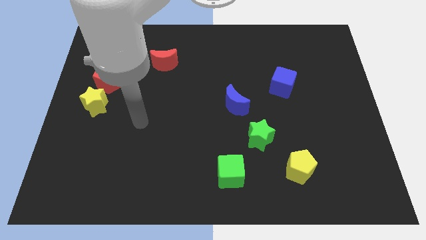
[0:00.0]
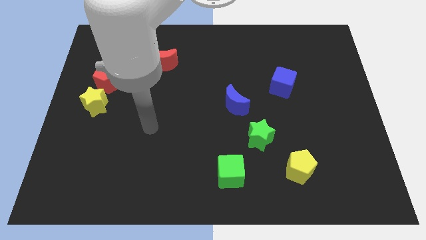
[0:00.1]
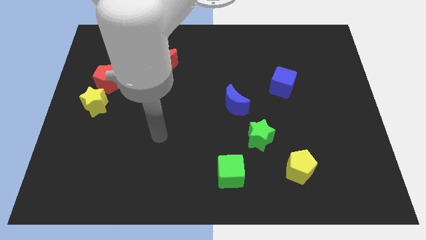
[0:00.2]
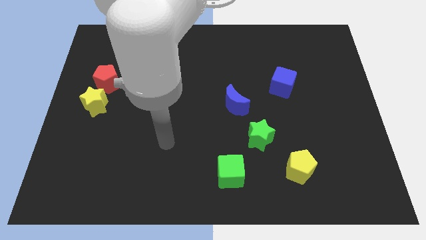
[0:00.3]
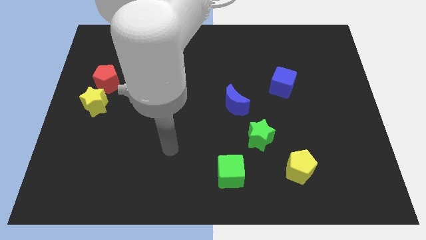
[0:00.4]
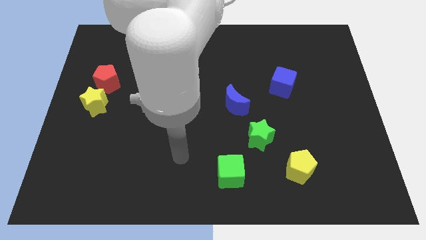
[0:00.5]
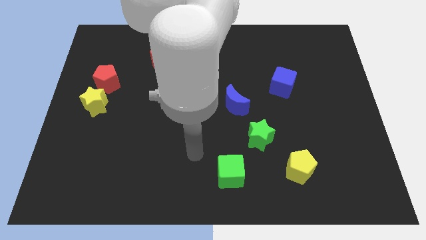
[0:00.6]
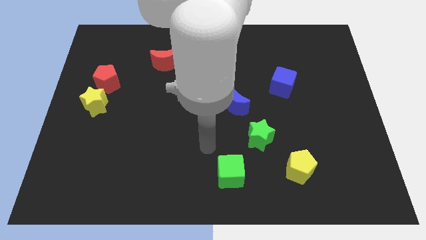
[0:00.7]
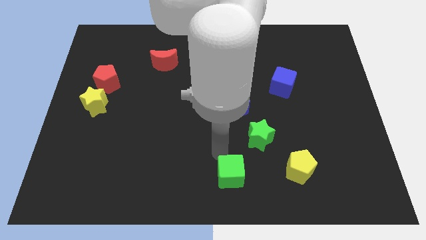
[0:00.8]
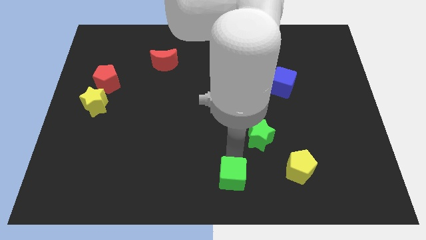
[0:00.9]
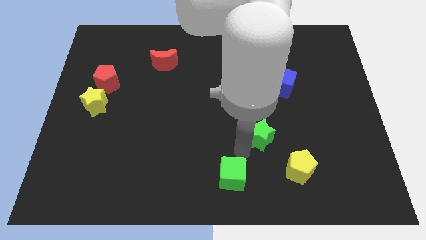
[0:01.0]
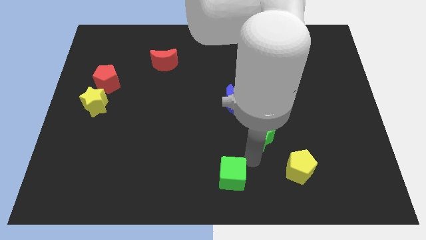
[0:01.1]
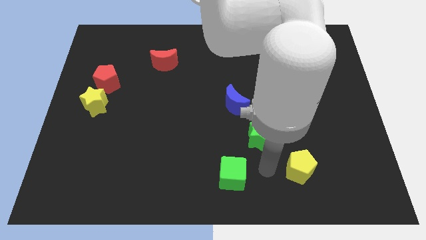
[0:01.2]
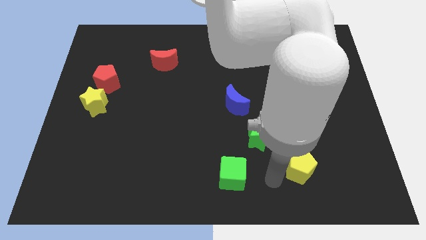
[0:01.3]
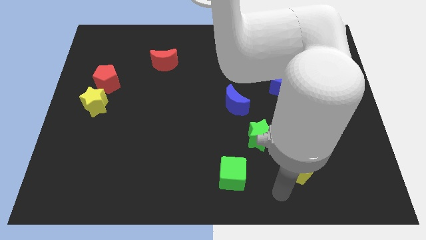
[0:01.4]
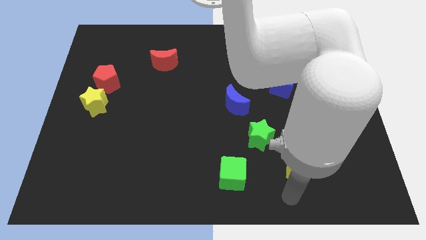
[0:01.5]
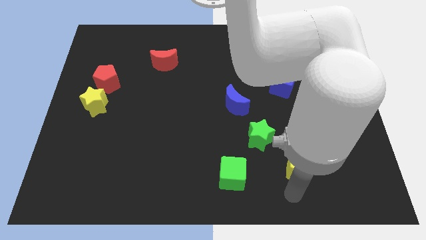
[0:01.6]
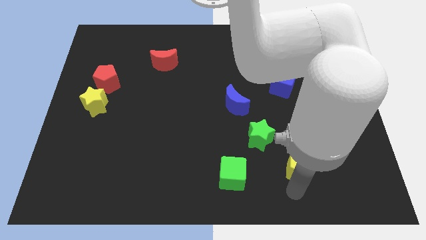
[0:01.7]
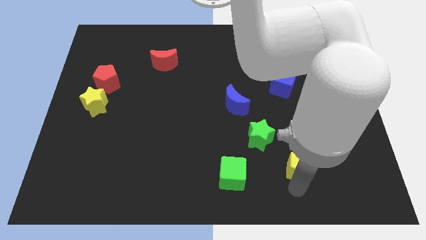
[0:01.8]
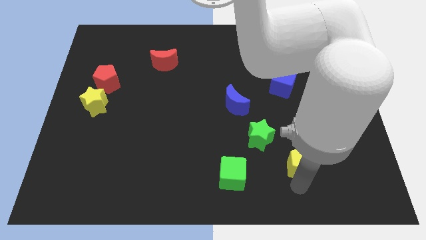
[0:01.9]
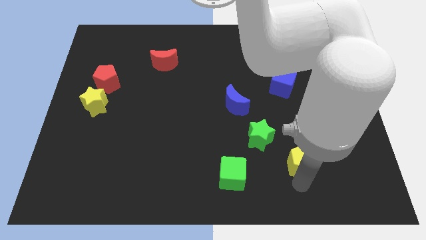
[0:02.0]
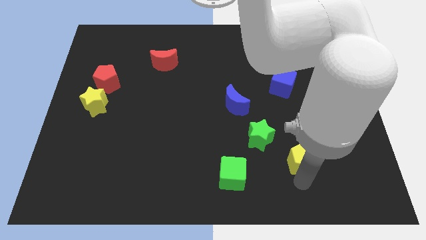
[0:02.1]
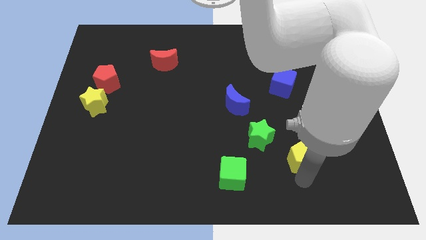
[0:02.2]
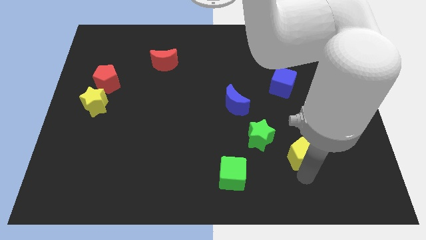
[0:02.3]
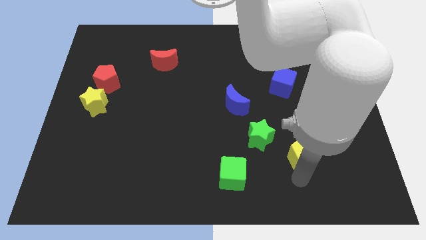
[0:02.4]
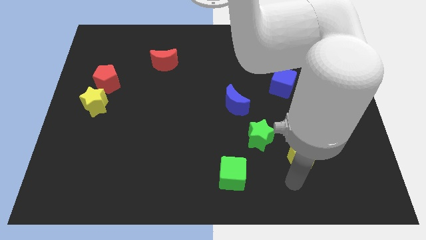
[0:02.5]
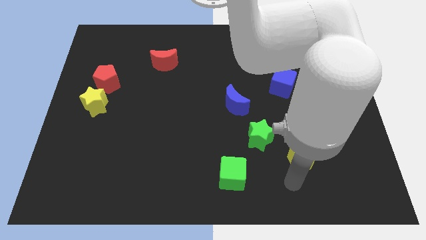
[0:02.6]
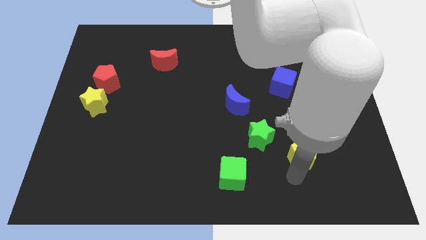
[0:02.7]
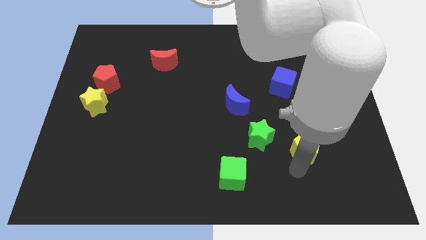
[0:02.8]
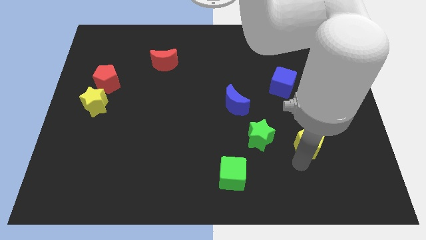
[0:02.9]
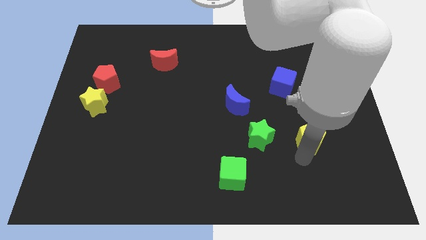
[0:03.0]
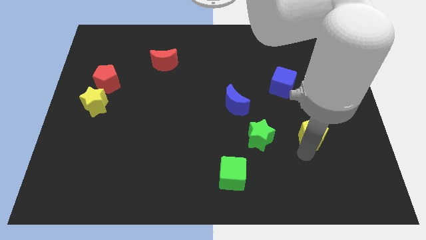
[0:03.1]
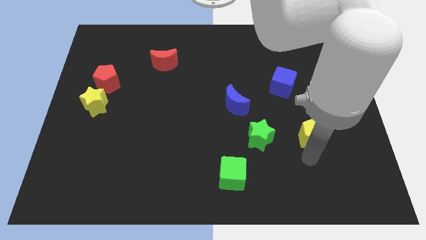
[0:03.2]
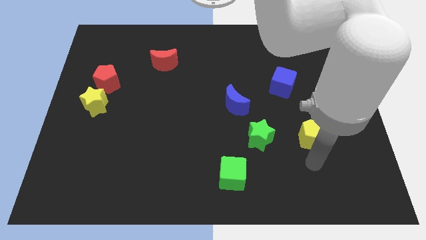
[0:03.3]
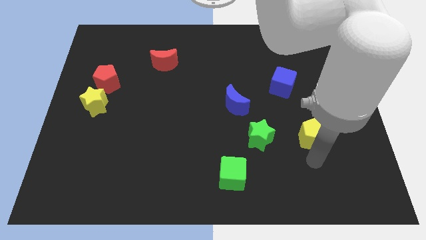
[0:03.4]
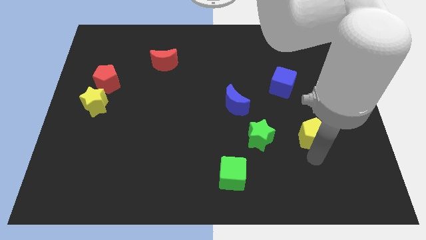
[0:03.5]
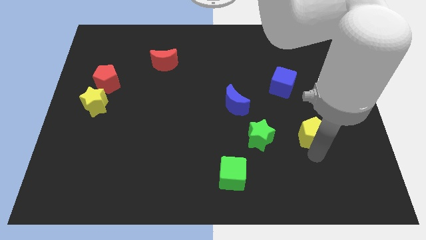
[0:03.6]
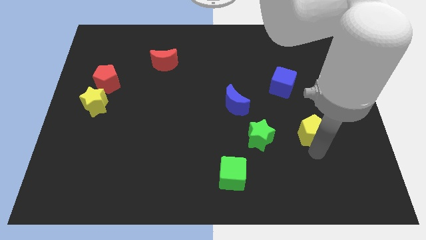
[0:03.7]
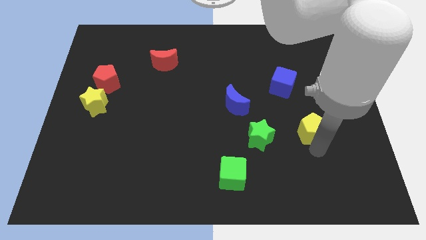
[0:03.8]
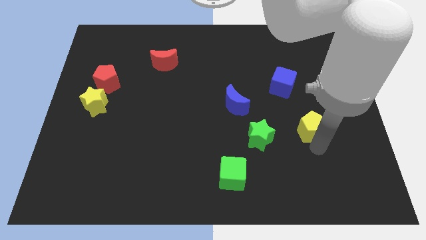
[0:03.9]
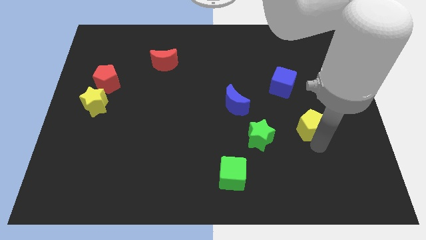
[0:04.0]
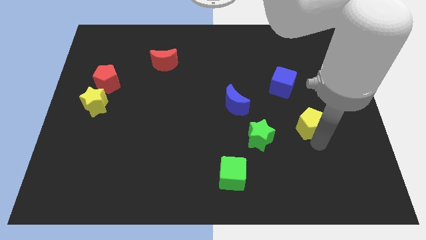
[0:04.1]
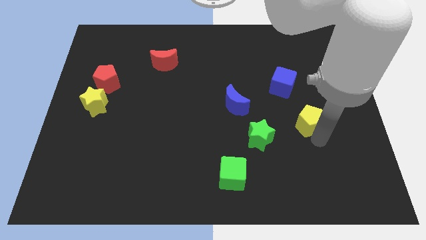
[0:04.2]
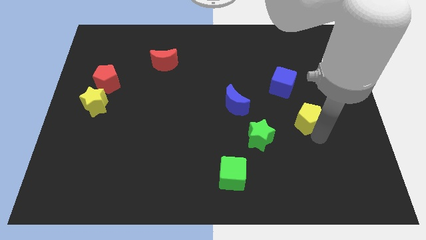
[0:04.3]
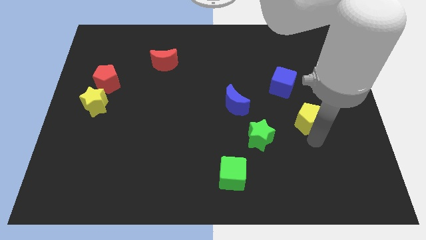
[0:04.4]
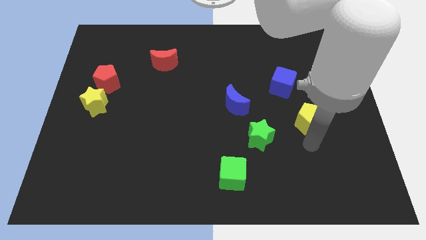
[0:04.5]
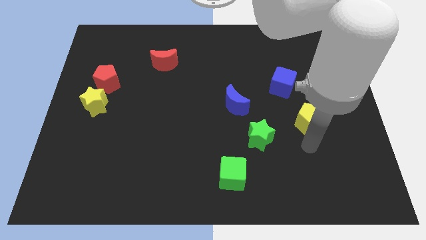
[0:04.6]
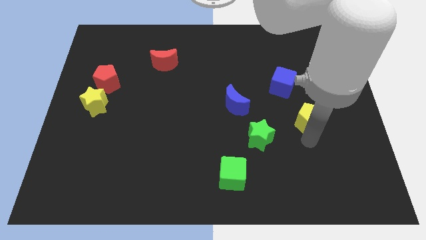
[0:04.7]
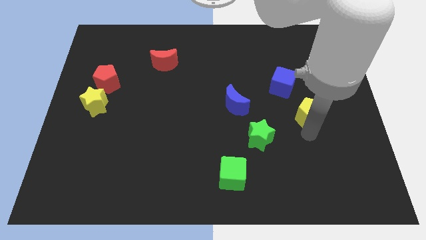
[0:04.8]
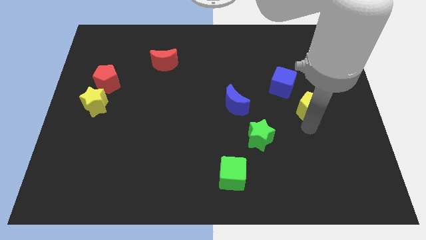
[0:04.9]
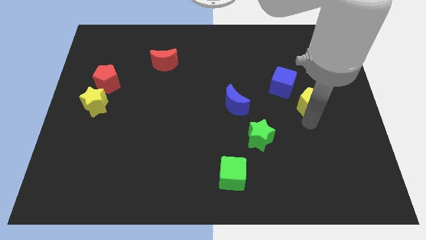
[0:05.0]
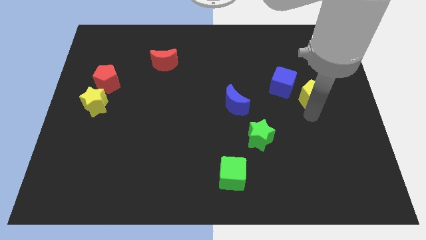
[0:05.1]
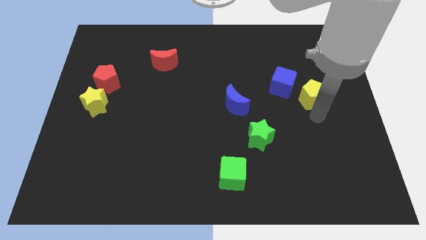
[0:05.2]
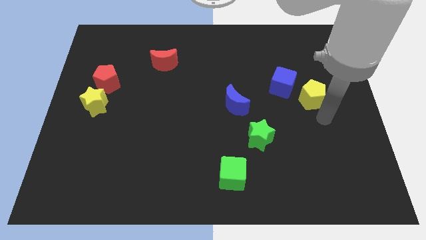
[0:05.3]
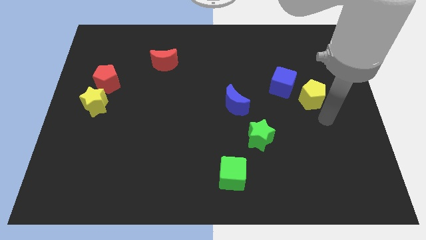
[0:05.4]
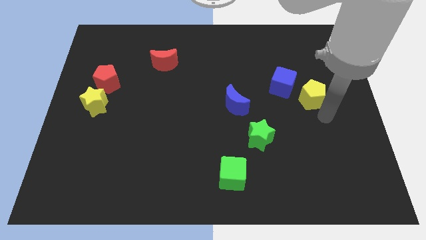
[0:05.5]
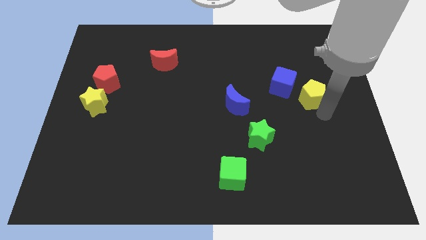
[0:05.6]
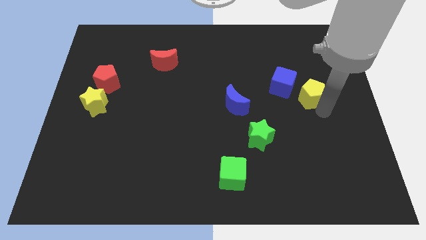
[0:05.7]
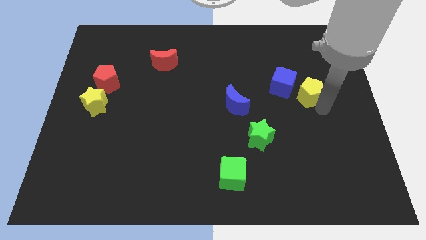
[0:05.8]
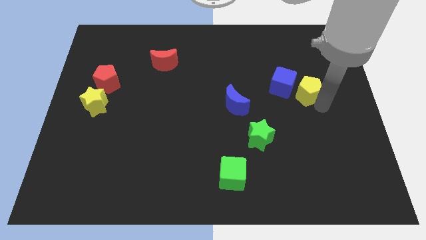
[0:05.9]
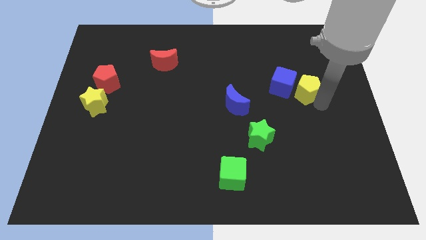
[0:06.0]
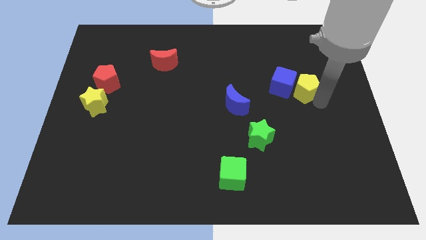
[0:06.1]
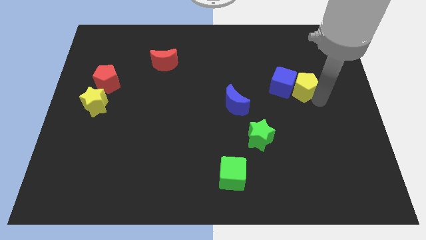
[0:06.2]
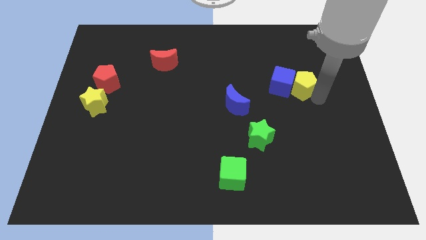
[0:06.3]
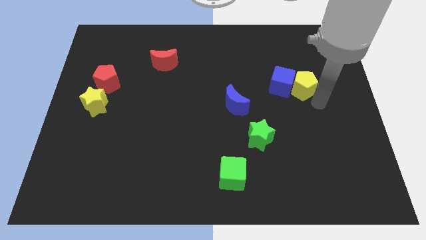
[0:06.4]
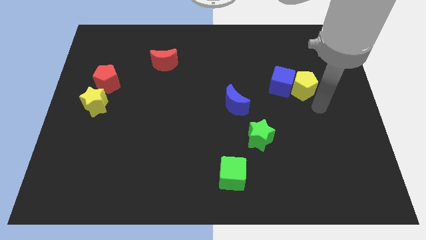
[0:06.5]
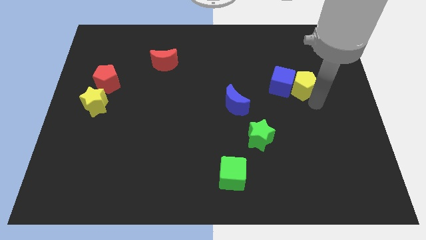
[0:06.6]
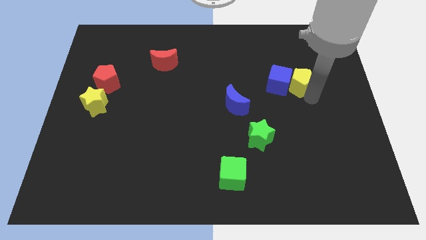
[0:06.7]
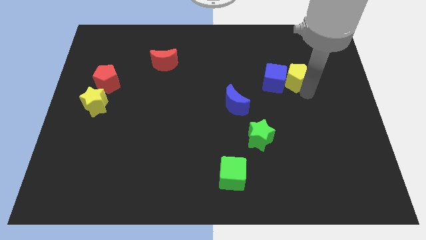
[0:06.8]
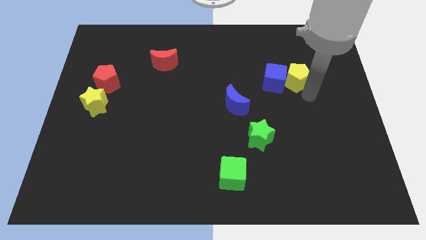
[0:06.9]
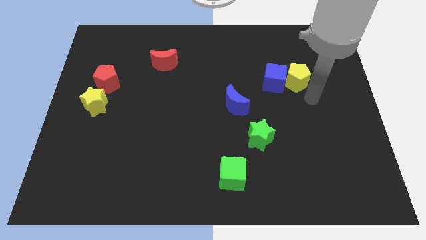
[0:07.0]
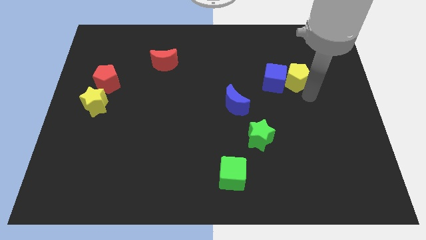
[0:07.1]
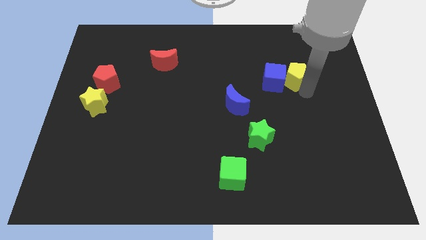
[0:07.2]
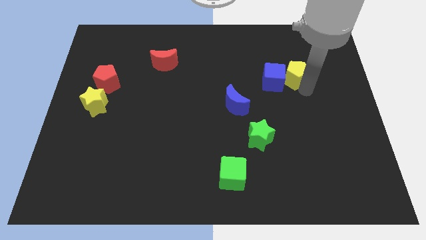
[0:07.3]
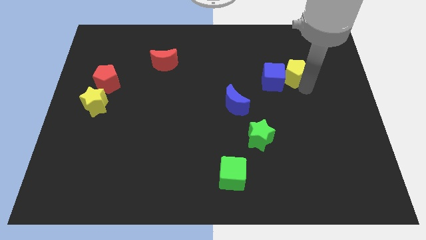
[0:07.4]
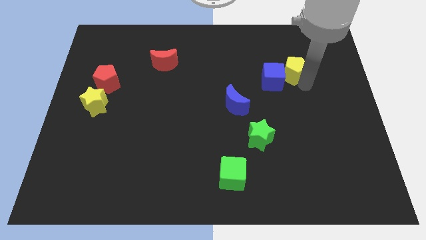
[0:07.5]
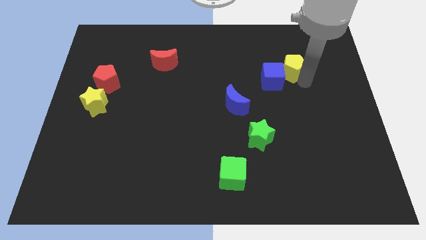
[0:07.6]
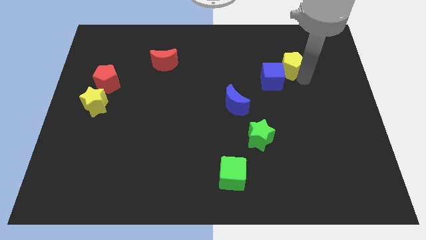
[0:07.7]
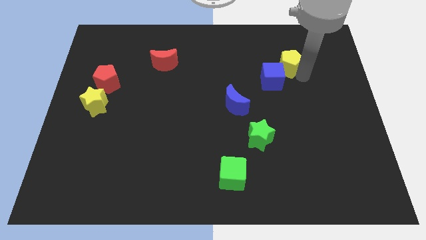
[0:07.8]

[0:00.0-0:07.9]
put the yellow pentagon to the top of the blue cube
